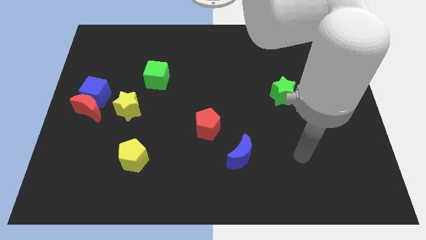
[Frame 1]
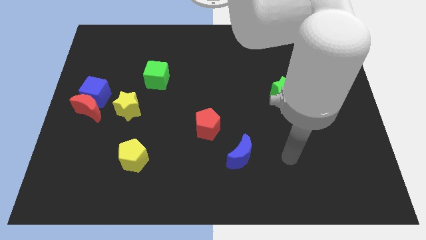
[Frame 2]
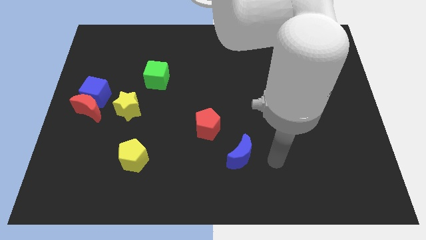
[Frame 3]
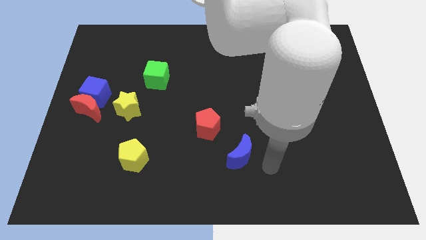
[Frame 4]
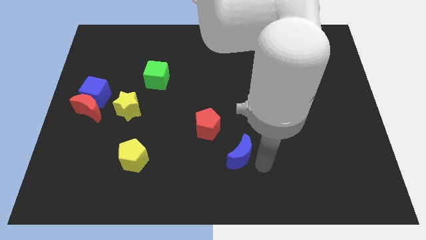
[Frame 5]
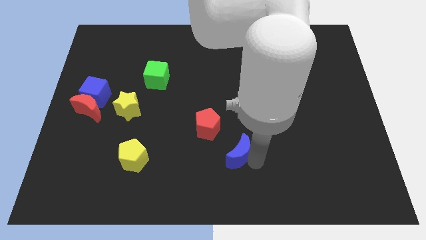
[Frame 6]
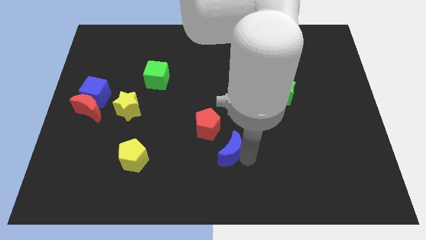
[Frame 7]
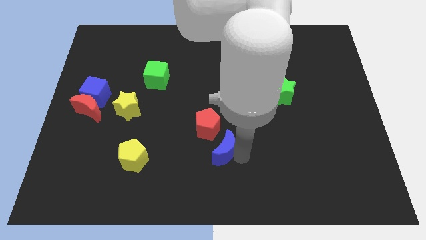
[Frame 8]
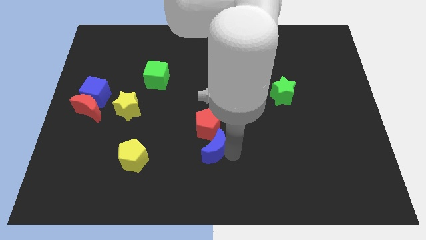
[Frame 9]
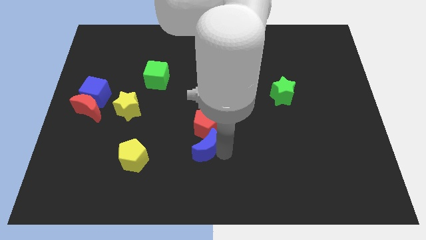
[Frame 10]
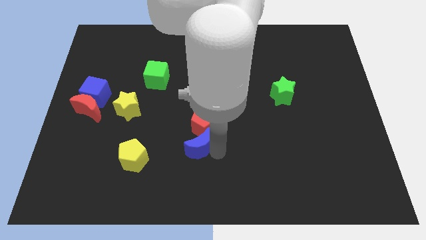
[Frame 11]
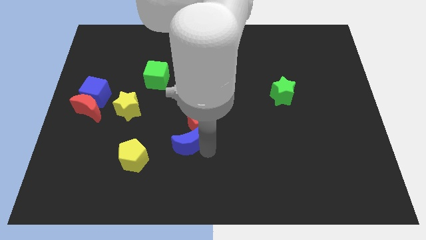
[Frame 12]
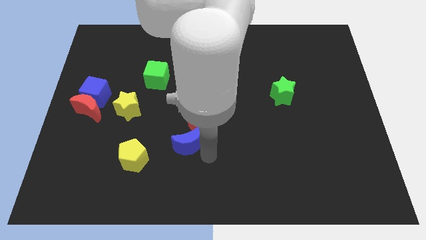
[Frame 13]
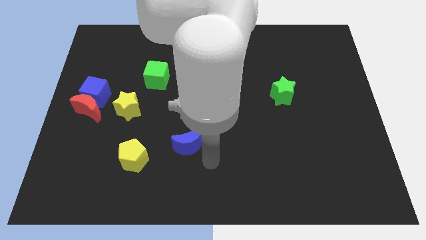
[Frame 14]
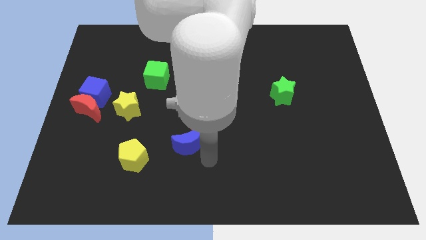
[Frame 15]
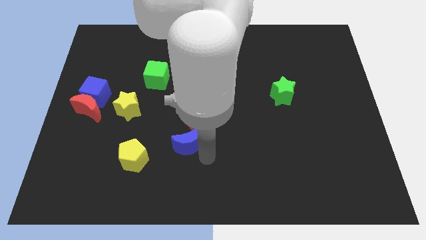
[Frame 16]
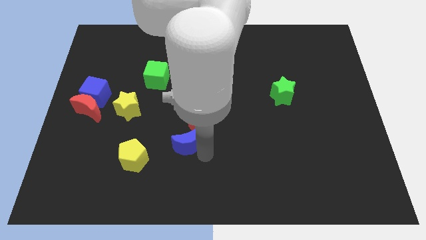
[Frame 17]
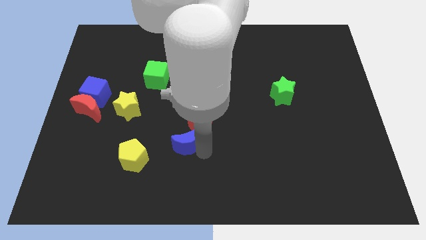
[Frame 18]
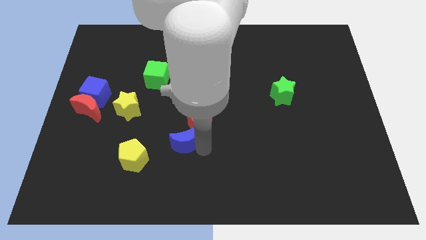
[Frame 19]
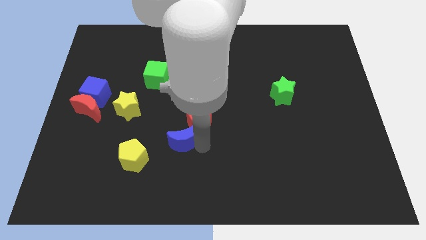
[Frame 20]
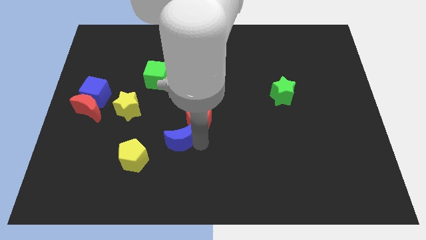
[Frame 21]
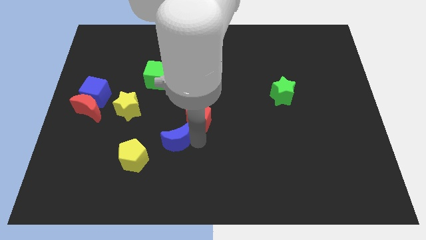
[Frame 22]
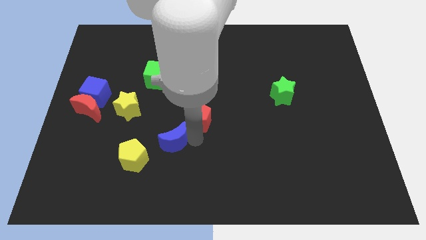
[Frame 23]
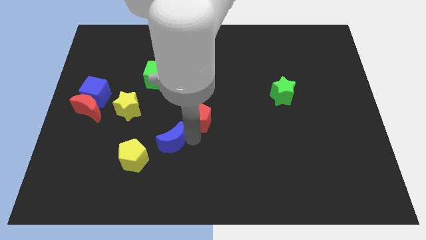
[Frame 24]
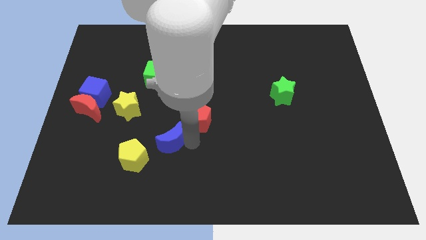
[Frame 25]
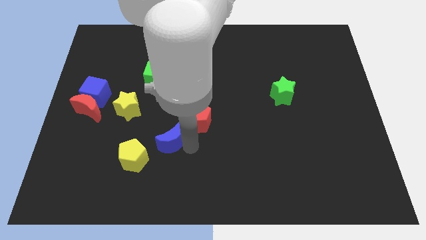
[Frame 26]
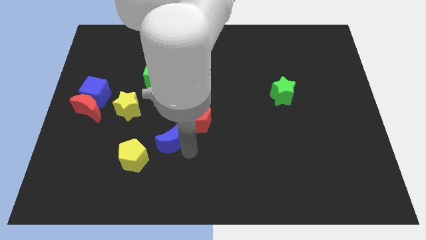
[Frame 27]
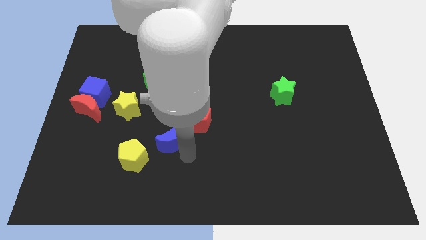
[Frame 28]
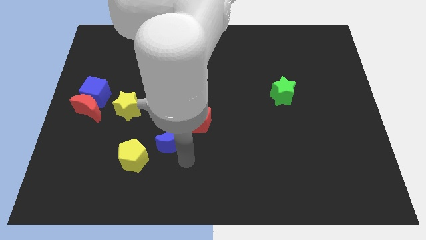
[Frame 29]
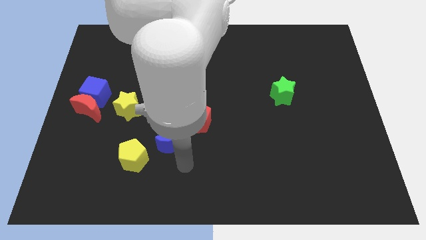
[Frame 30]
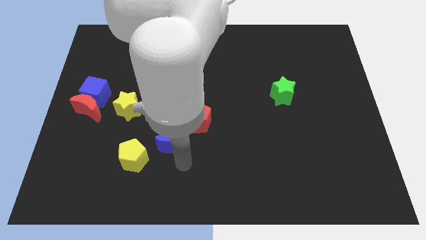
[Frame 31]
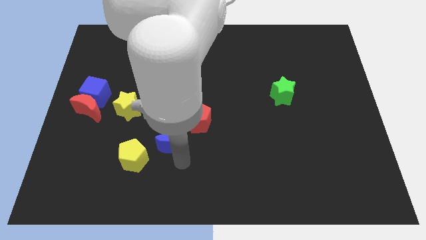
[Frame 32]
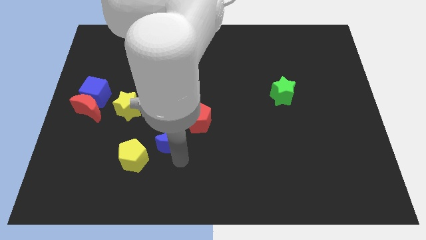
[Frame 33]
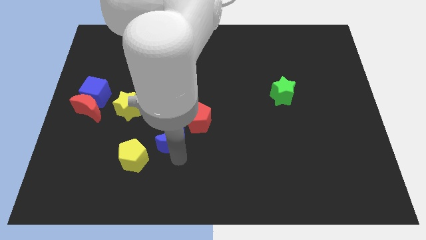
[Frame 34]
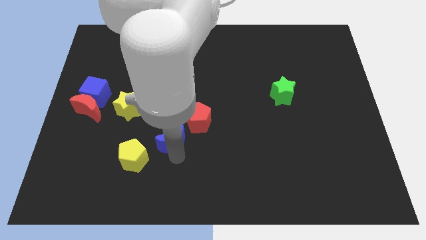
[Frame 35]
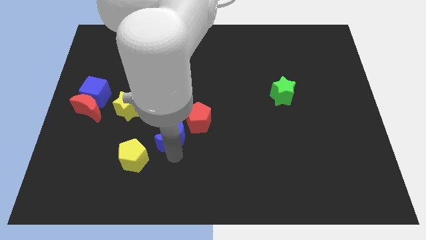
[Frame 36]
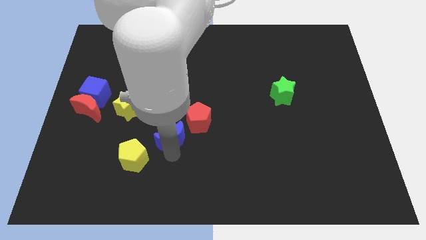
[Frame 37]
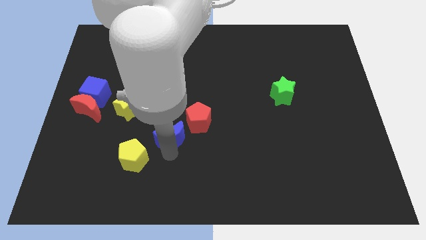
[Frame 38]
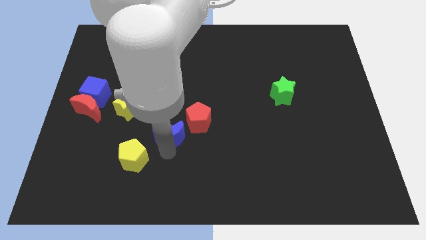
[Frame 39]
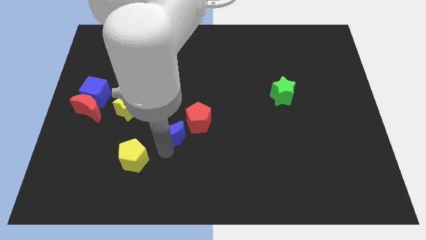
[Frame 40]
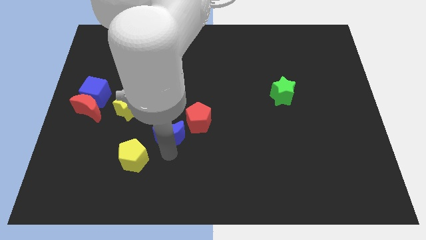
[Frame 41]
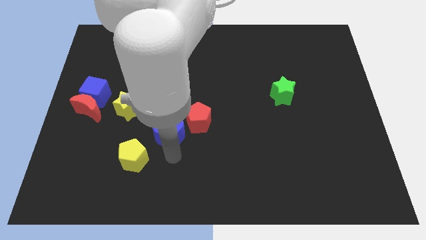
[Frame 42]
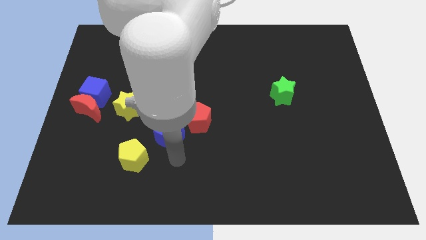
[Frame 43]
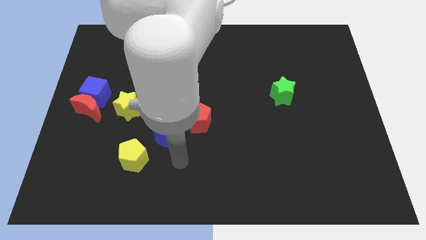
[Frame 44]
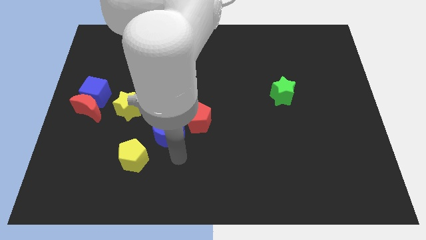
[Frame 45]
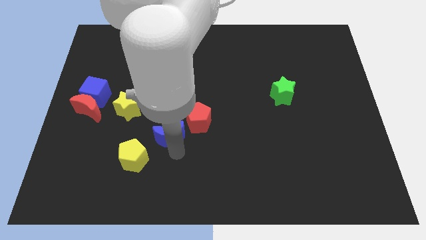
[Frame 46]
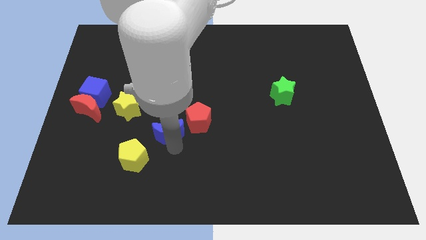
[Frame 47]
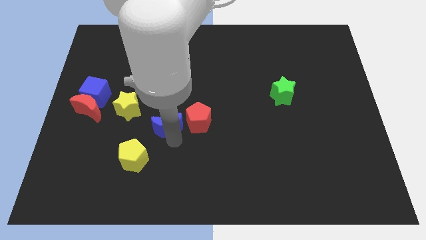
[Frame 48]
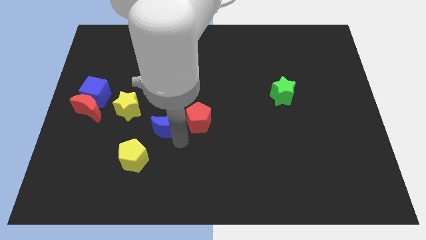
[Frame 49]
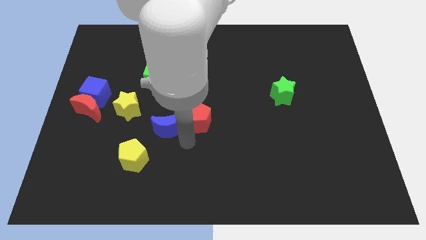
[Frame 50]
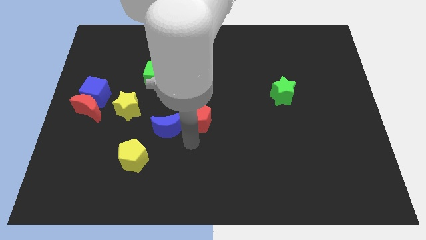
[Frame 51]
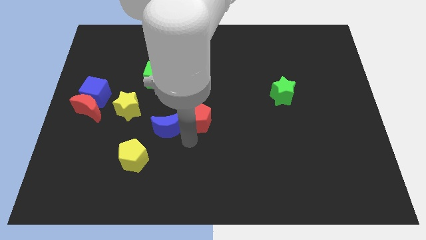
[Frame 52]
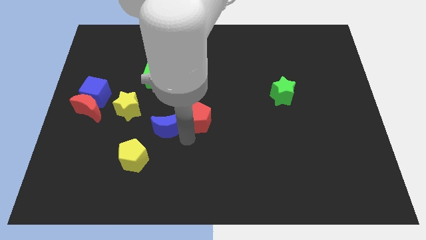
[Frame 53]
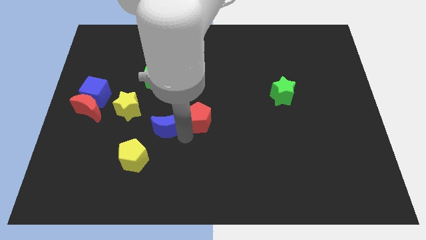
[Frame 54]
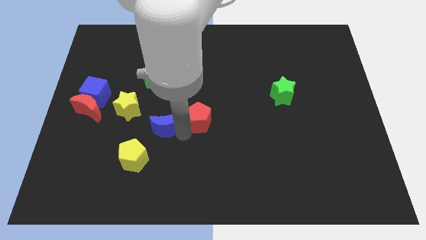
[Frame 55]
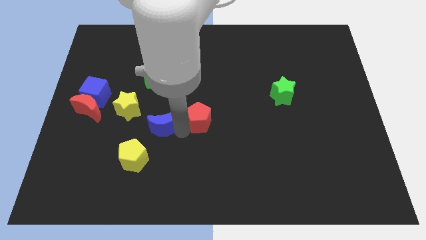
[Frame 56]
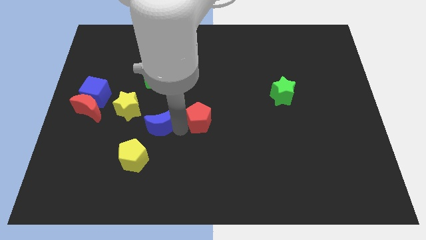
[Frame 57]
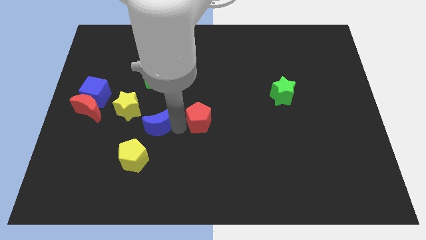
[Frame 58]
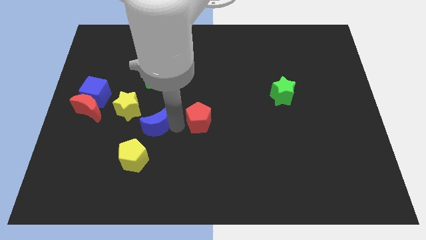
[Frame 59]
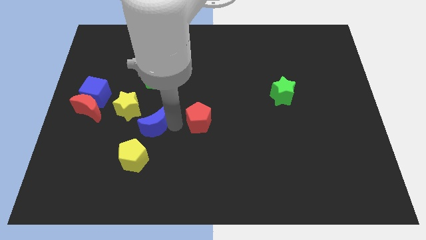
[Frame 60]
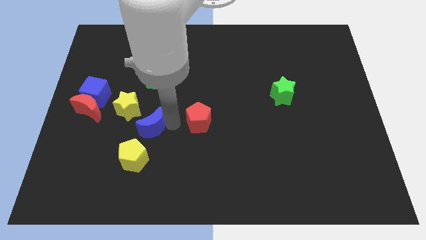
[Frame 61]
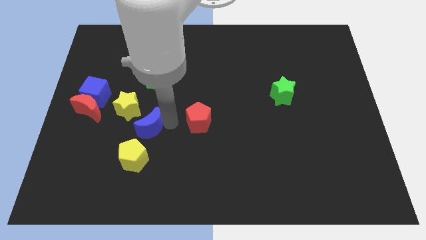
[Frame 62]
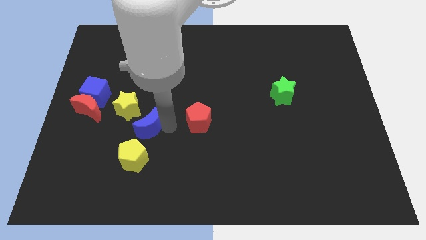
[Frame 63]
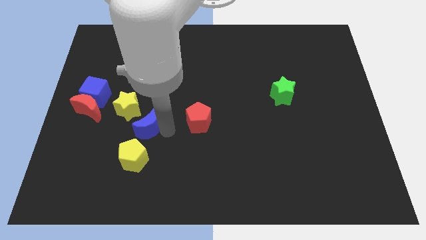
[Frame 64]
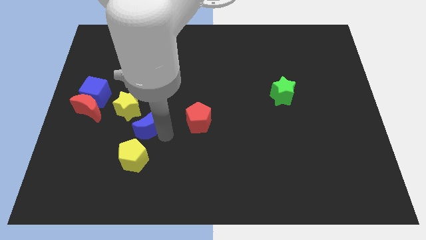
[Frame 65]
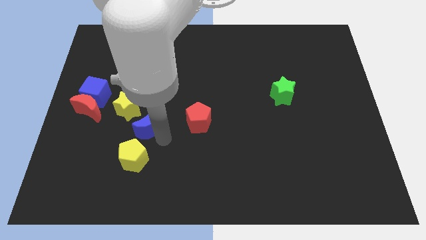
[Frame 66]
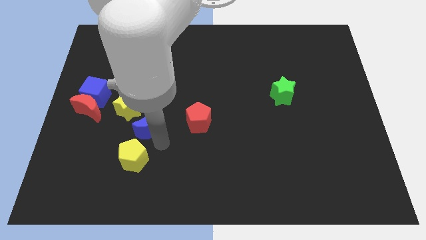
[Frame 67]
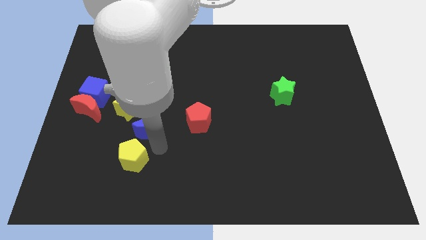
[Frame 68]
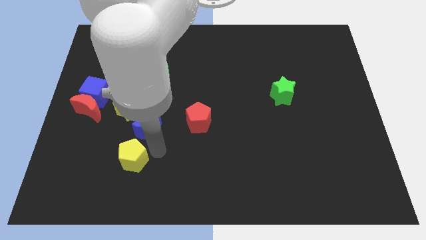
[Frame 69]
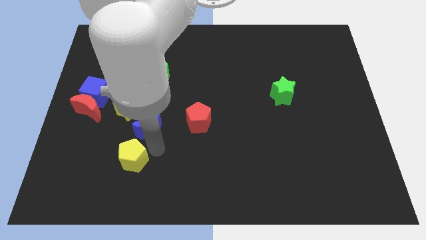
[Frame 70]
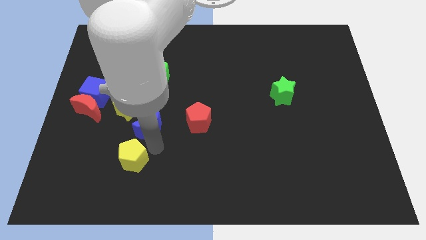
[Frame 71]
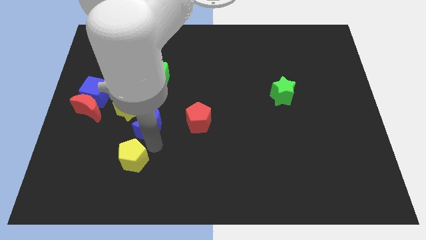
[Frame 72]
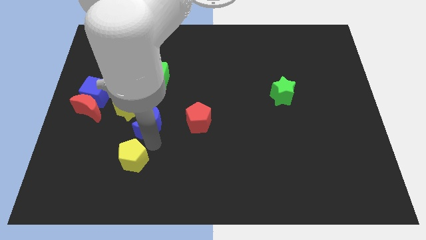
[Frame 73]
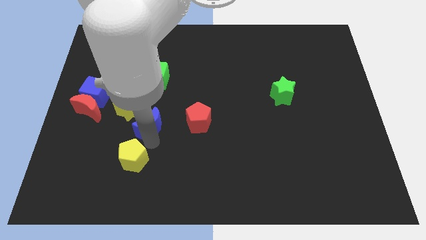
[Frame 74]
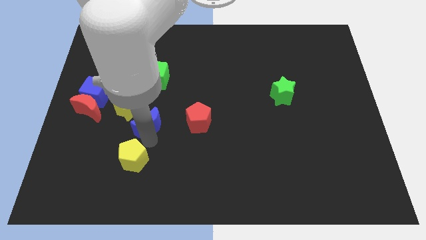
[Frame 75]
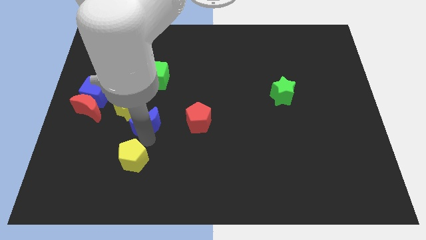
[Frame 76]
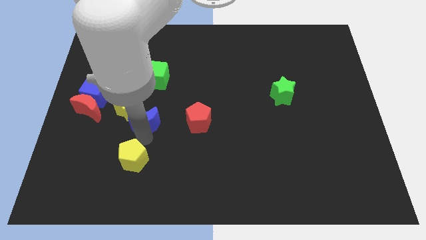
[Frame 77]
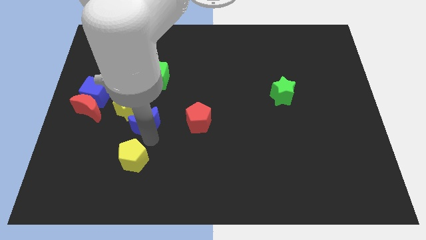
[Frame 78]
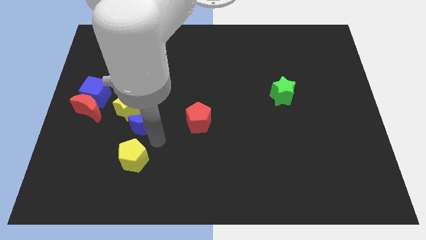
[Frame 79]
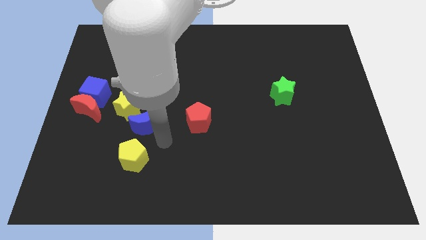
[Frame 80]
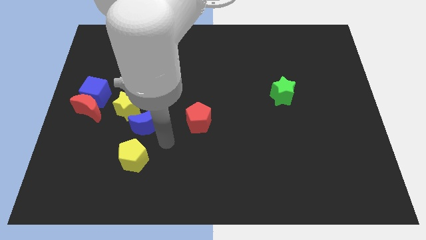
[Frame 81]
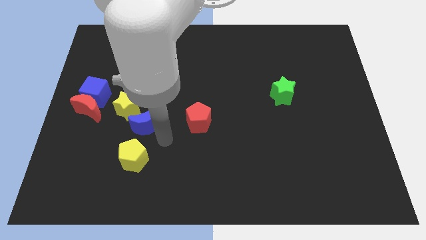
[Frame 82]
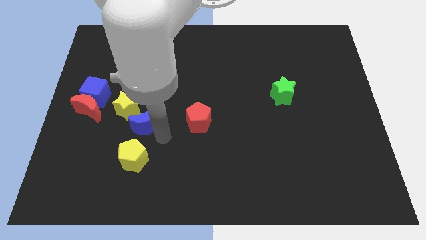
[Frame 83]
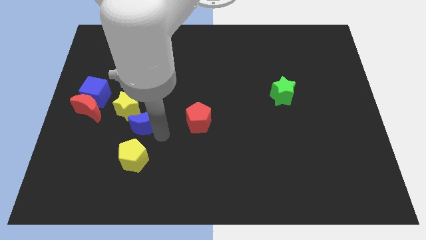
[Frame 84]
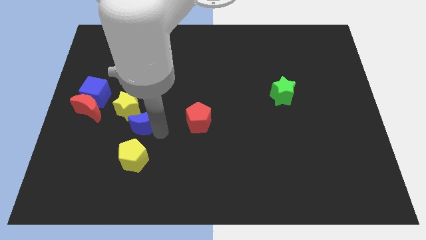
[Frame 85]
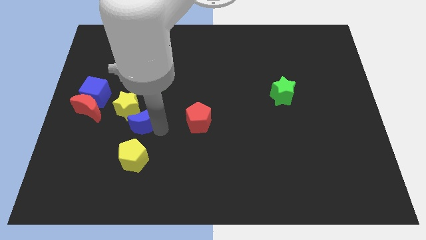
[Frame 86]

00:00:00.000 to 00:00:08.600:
put the blue moon to the yellow star
